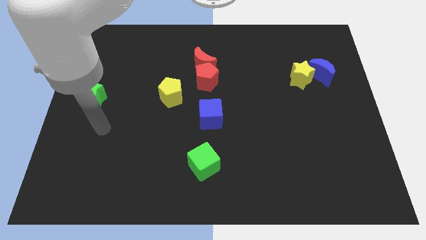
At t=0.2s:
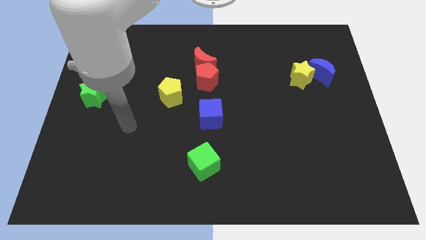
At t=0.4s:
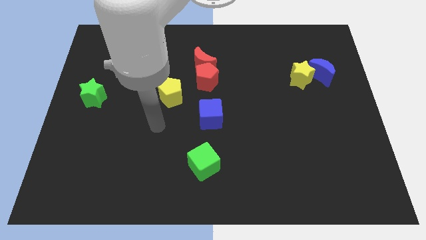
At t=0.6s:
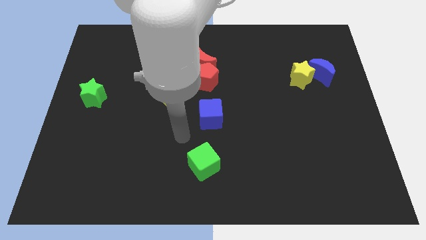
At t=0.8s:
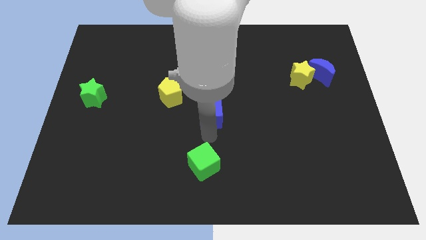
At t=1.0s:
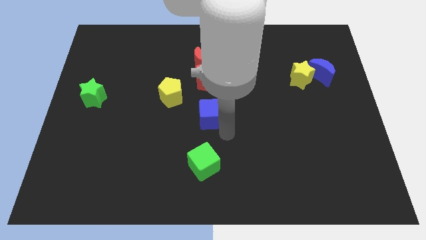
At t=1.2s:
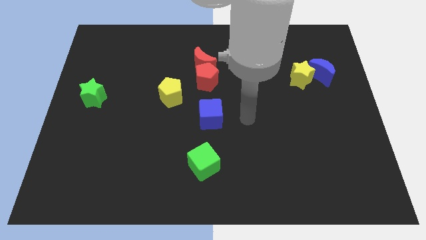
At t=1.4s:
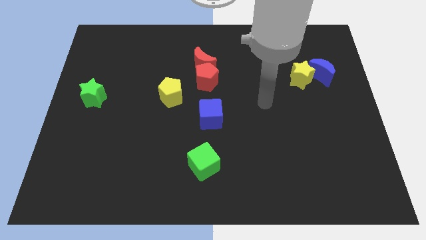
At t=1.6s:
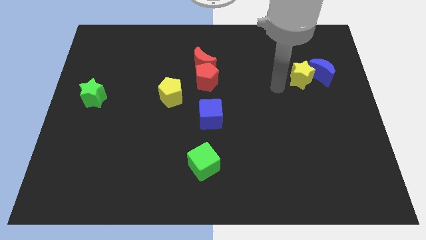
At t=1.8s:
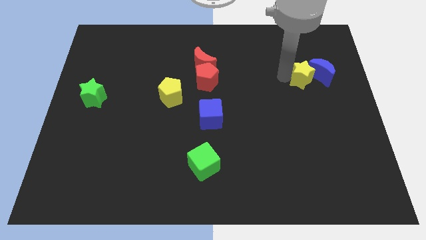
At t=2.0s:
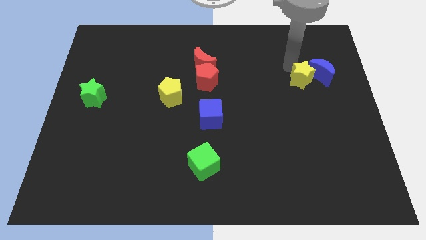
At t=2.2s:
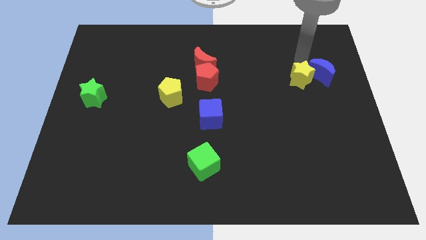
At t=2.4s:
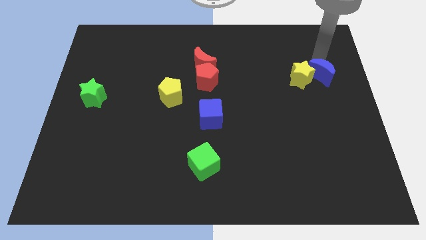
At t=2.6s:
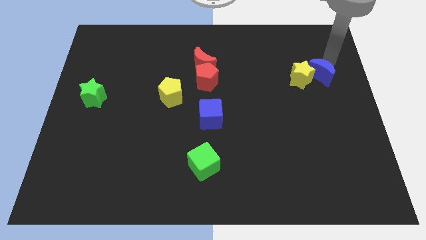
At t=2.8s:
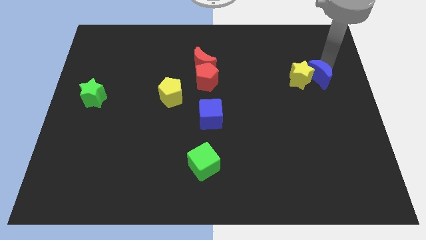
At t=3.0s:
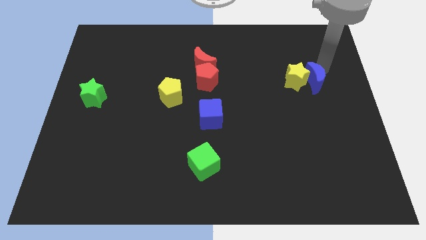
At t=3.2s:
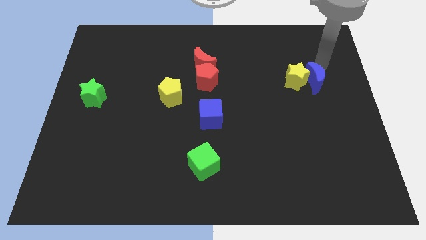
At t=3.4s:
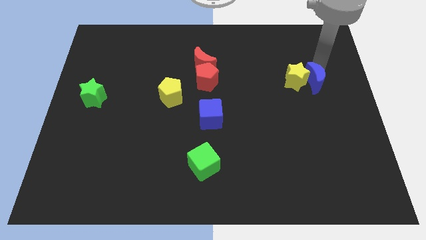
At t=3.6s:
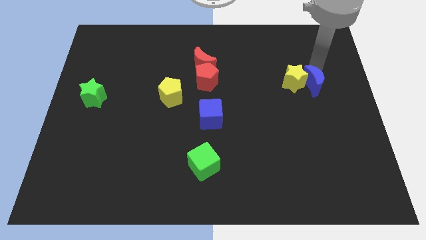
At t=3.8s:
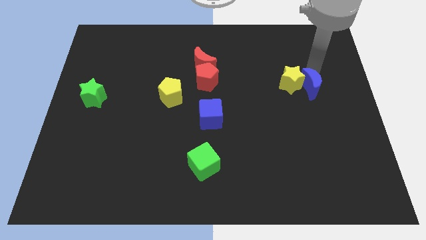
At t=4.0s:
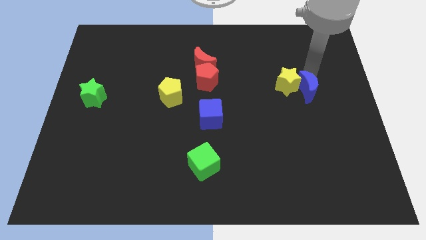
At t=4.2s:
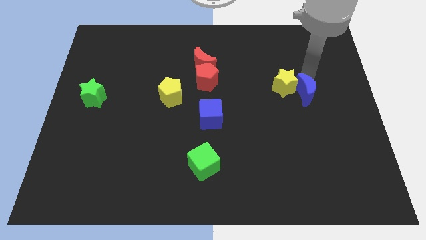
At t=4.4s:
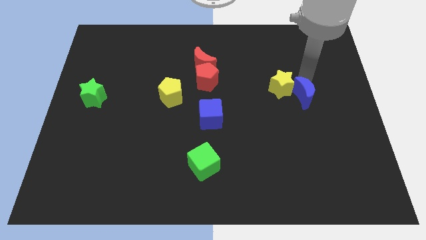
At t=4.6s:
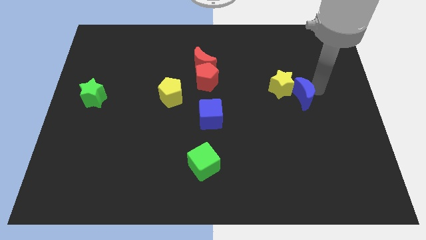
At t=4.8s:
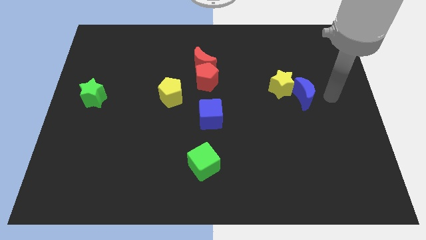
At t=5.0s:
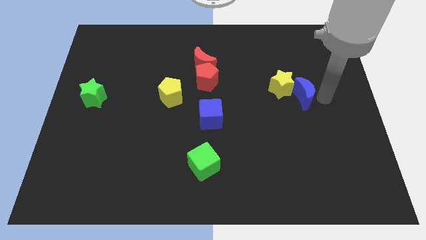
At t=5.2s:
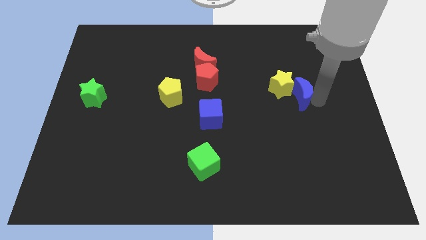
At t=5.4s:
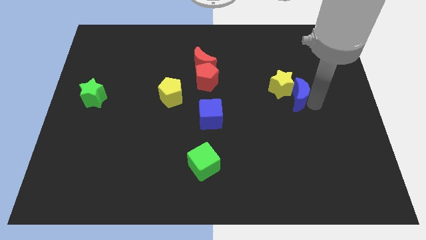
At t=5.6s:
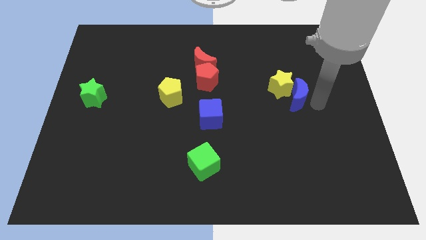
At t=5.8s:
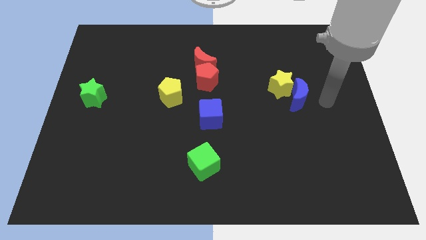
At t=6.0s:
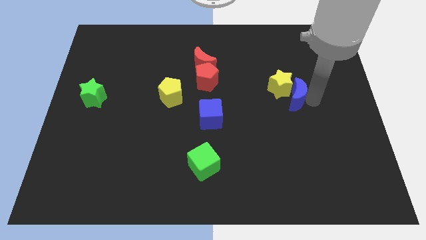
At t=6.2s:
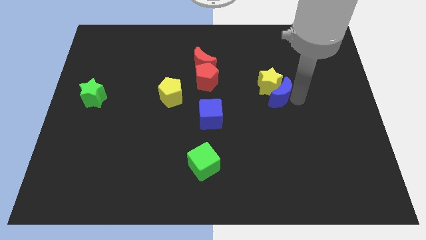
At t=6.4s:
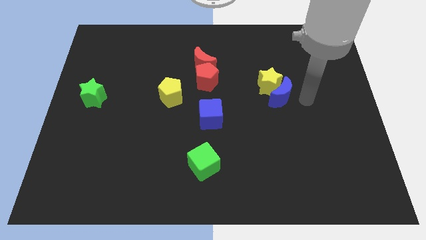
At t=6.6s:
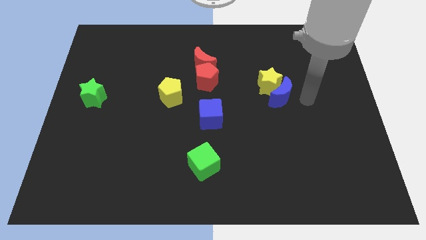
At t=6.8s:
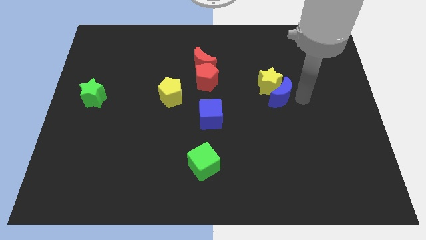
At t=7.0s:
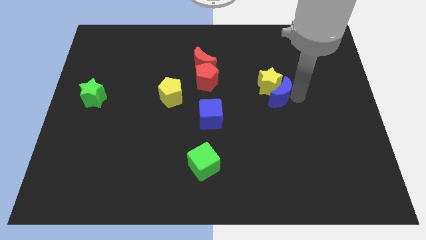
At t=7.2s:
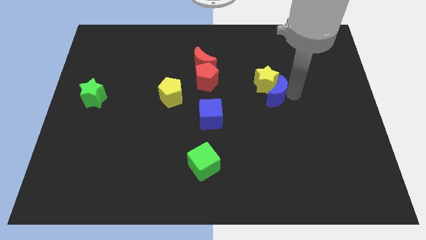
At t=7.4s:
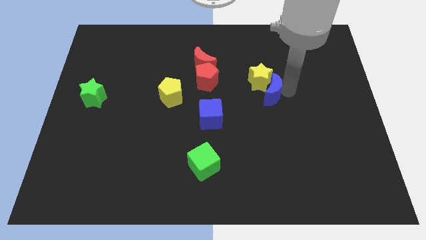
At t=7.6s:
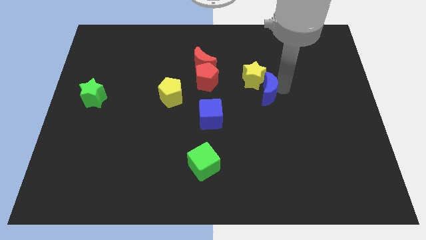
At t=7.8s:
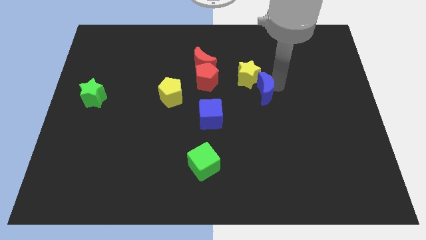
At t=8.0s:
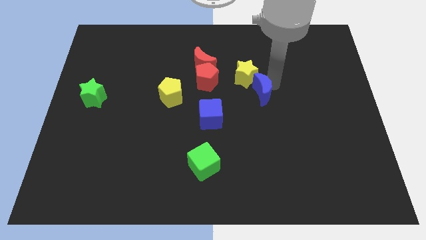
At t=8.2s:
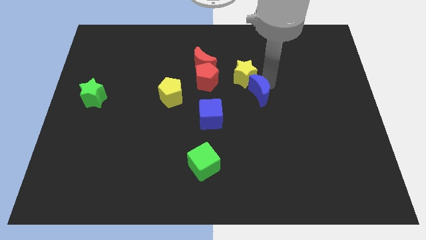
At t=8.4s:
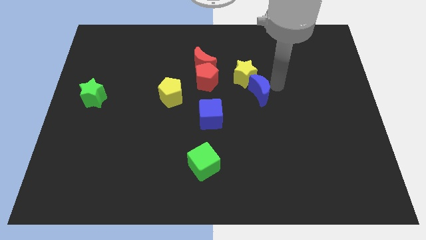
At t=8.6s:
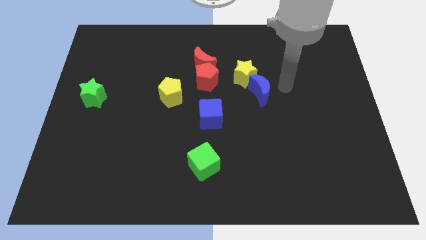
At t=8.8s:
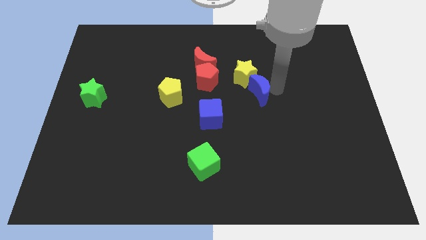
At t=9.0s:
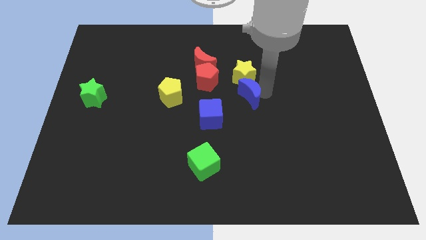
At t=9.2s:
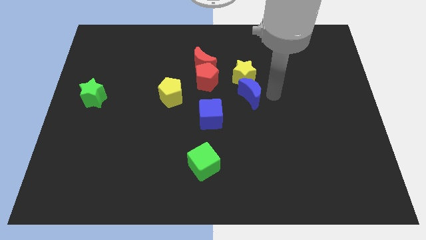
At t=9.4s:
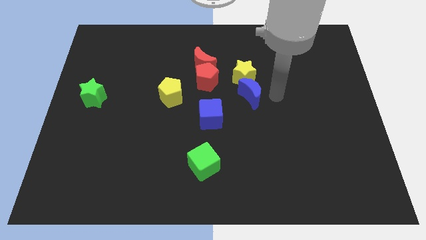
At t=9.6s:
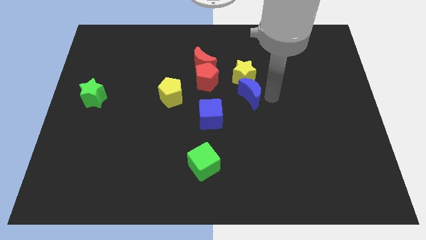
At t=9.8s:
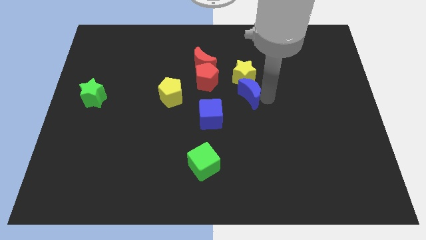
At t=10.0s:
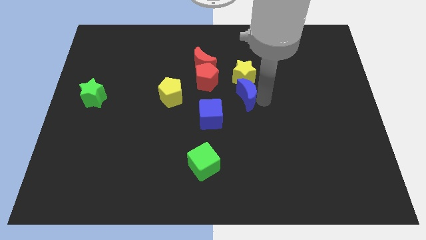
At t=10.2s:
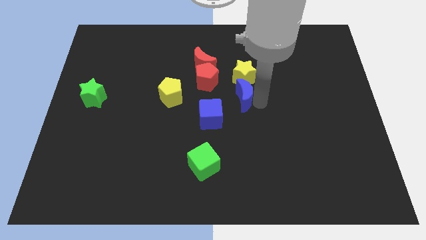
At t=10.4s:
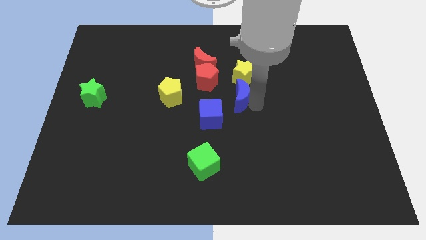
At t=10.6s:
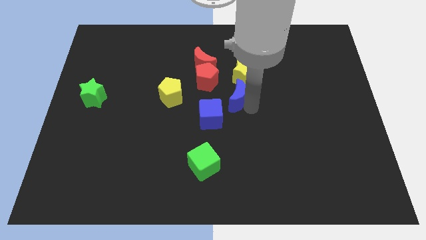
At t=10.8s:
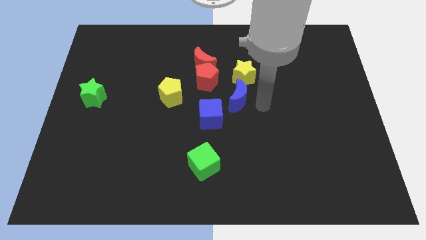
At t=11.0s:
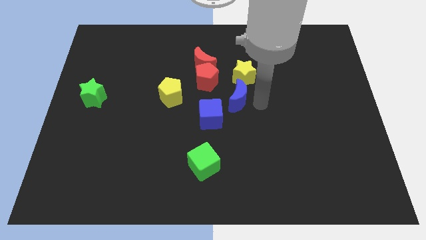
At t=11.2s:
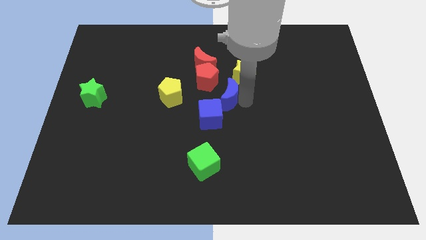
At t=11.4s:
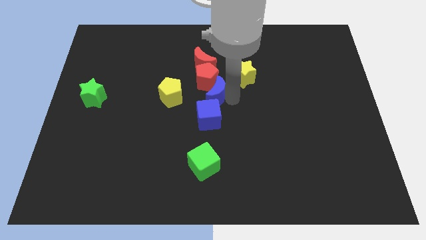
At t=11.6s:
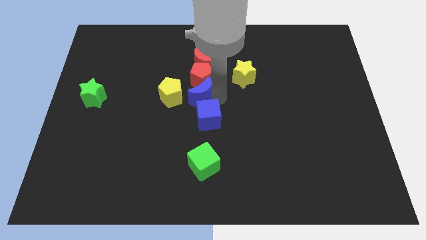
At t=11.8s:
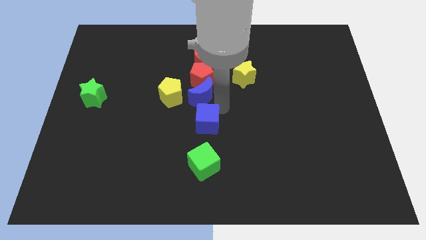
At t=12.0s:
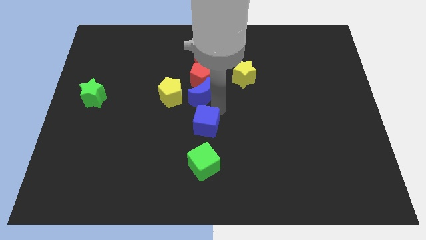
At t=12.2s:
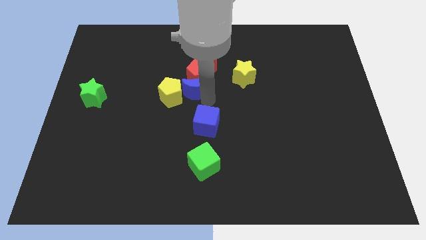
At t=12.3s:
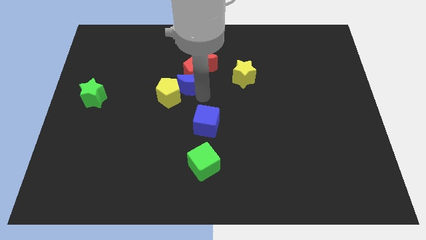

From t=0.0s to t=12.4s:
move the blue moon to the bottom left of the red moon

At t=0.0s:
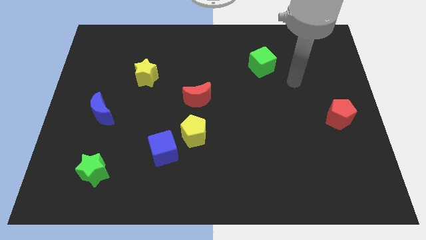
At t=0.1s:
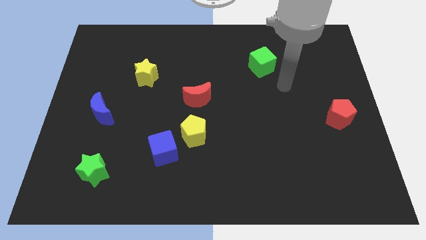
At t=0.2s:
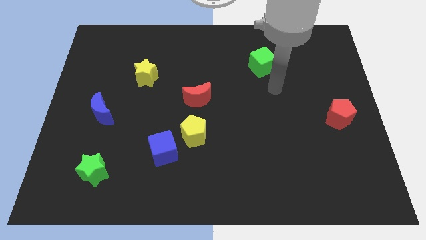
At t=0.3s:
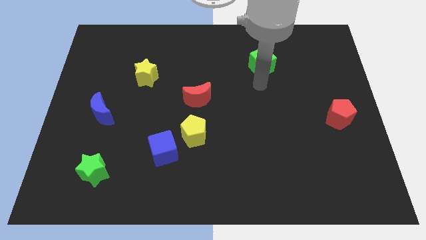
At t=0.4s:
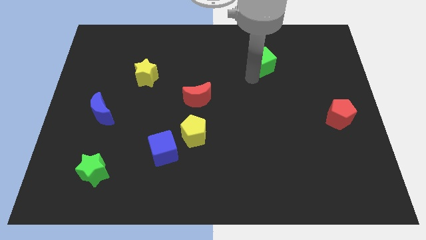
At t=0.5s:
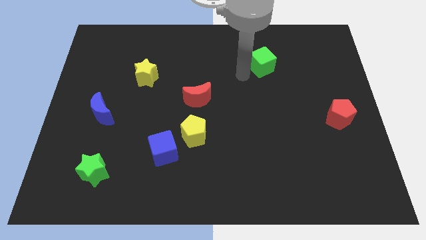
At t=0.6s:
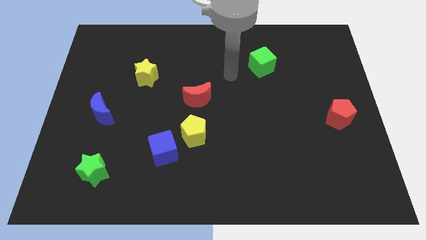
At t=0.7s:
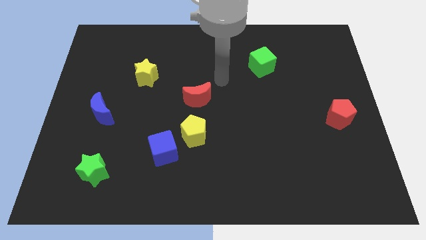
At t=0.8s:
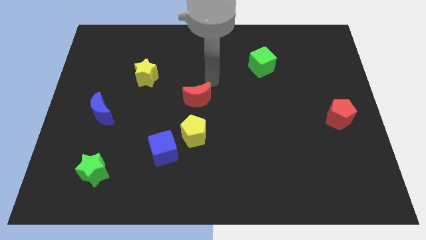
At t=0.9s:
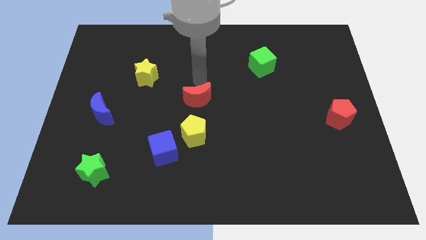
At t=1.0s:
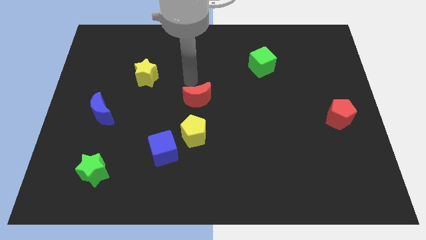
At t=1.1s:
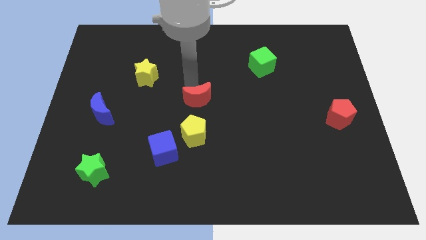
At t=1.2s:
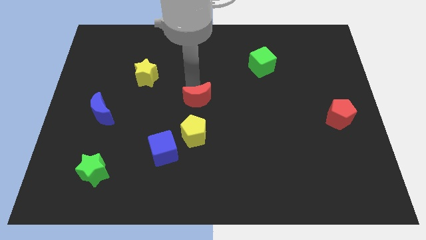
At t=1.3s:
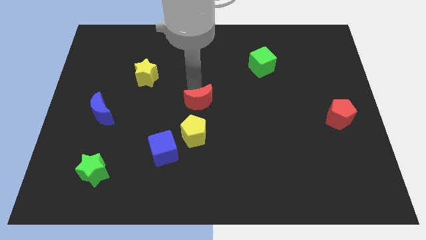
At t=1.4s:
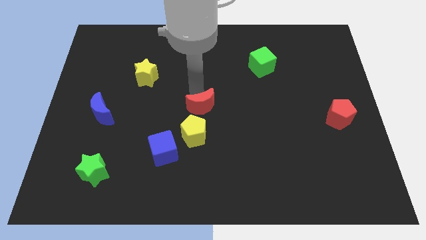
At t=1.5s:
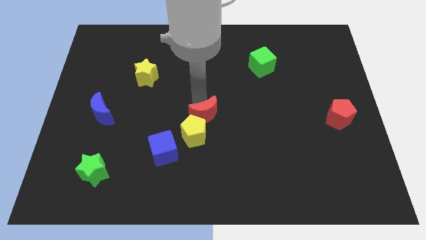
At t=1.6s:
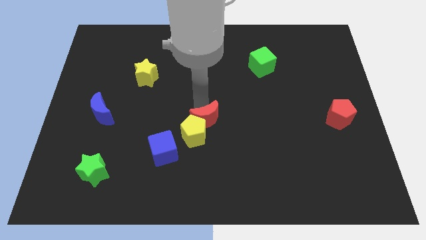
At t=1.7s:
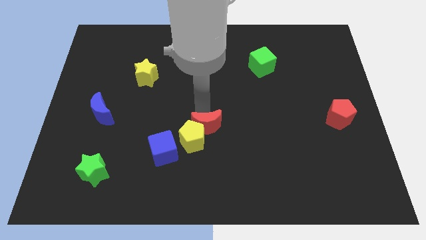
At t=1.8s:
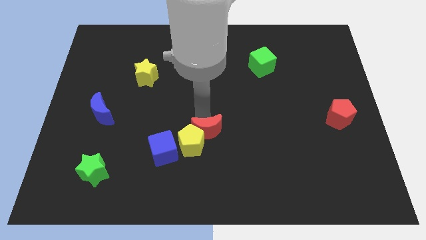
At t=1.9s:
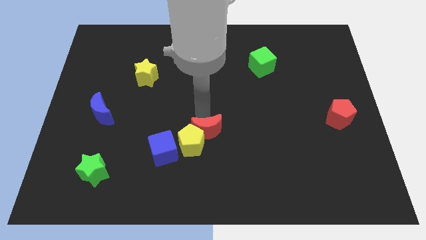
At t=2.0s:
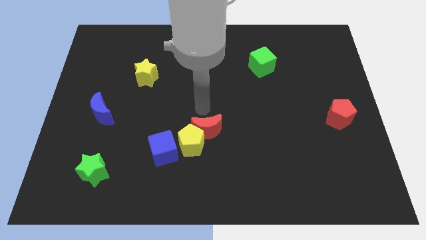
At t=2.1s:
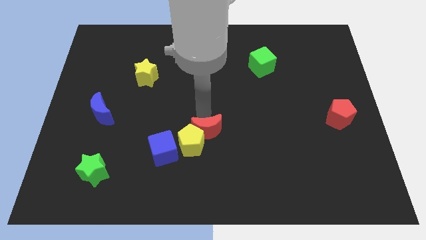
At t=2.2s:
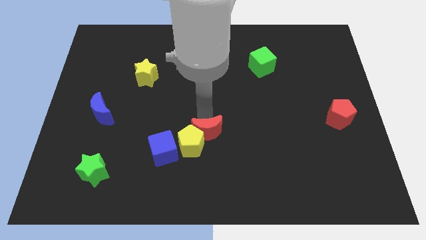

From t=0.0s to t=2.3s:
push the red moon just right of the blue cube
